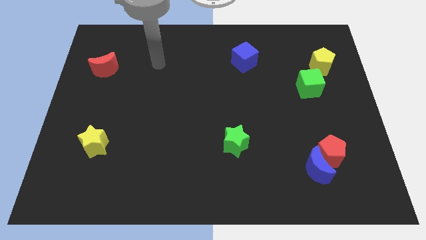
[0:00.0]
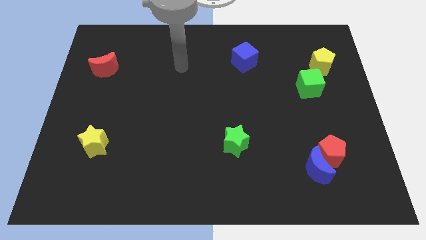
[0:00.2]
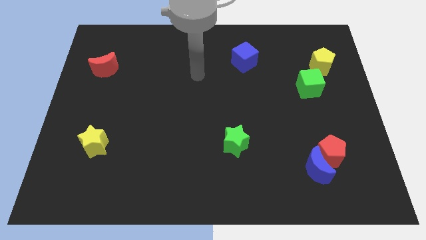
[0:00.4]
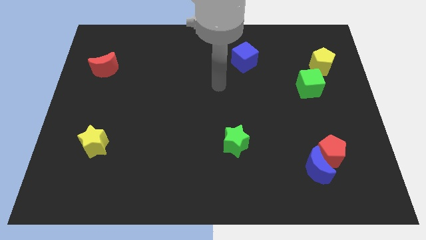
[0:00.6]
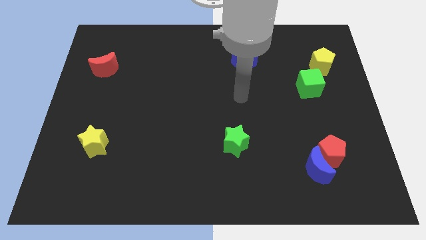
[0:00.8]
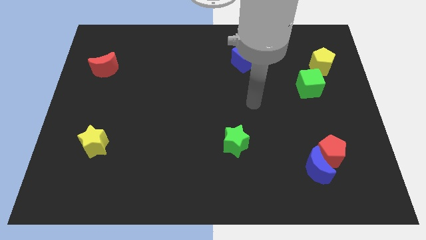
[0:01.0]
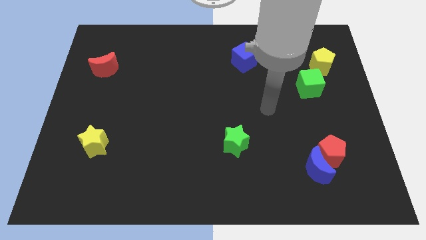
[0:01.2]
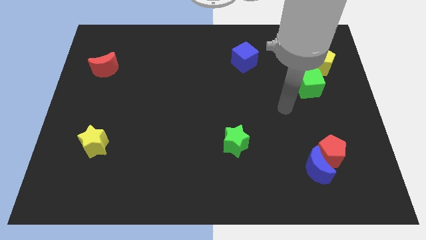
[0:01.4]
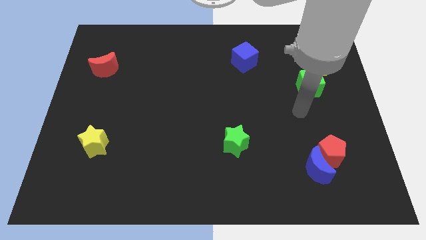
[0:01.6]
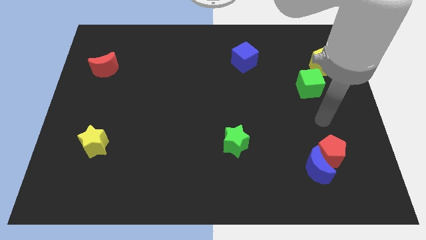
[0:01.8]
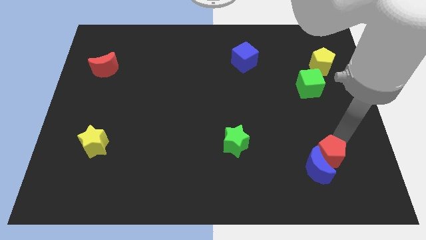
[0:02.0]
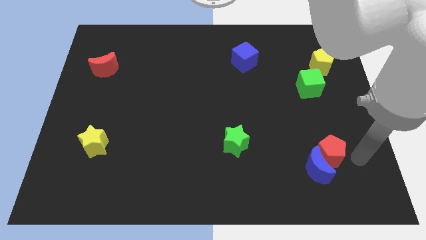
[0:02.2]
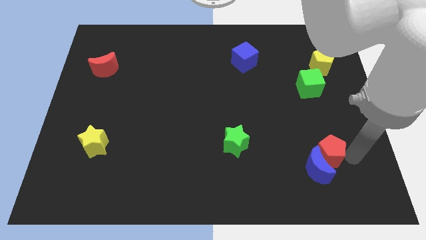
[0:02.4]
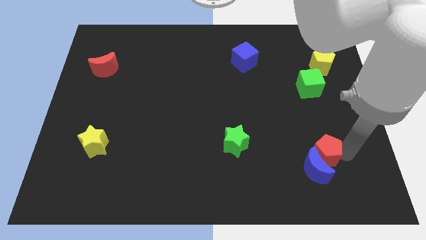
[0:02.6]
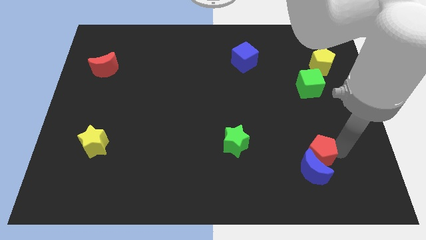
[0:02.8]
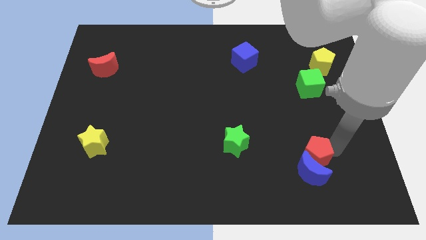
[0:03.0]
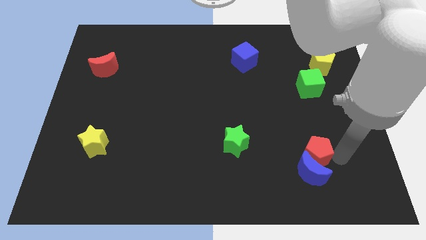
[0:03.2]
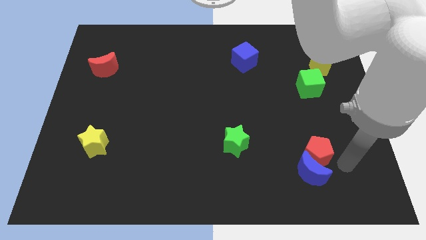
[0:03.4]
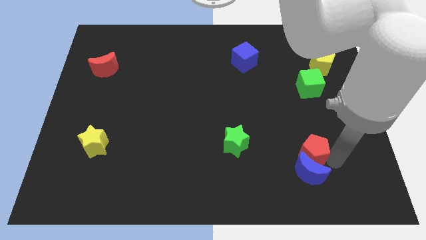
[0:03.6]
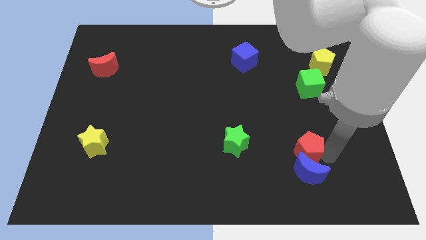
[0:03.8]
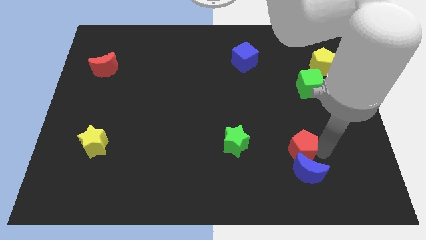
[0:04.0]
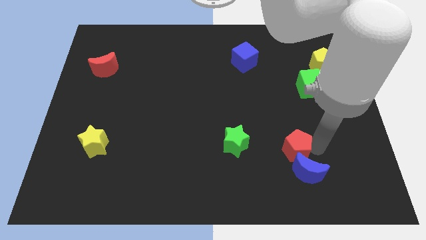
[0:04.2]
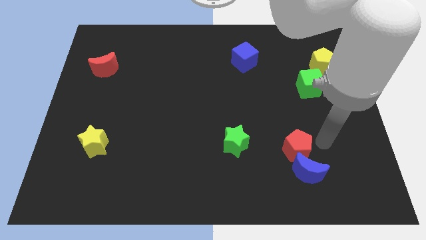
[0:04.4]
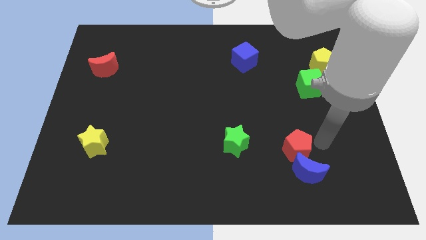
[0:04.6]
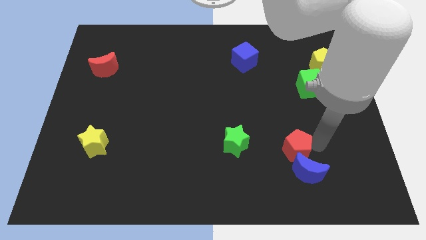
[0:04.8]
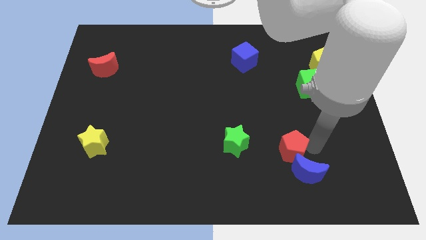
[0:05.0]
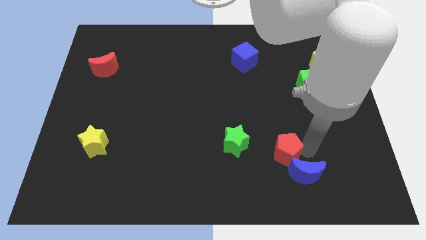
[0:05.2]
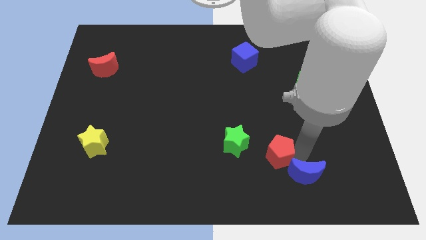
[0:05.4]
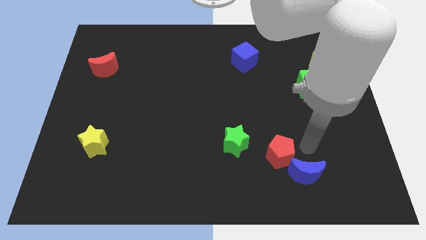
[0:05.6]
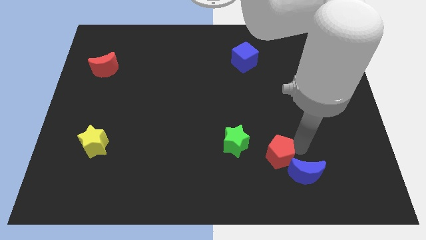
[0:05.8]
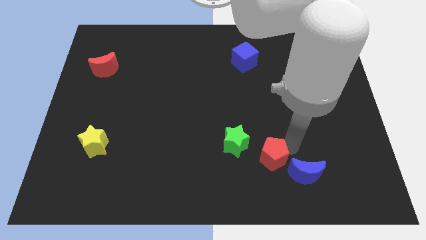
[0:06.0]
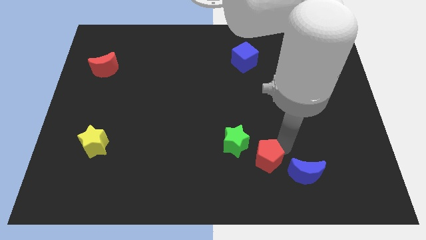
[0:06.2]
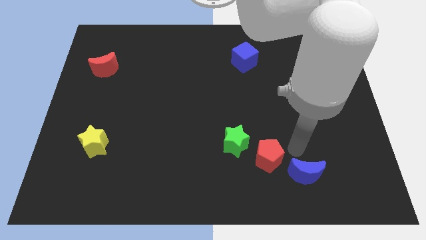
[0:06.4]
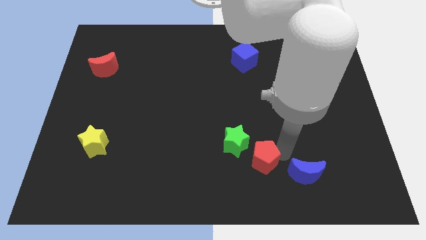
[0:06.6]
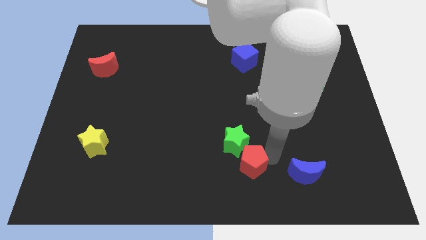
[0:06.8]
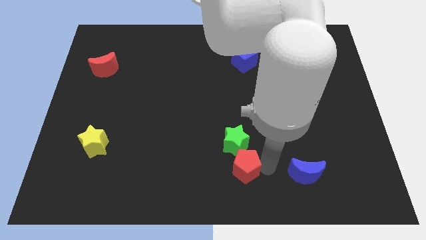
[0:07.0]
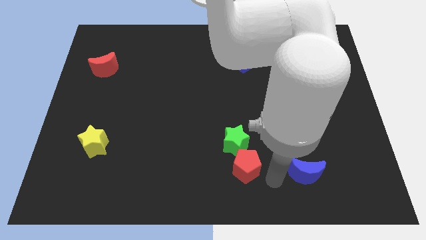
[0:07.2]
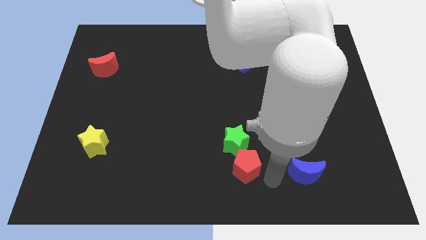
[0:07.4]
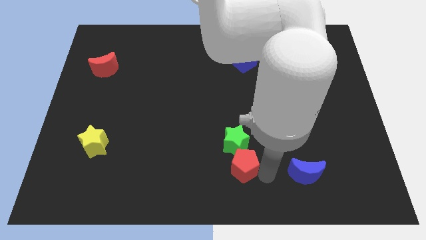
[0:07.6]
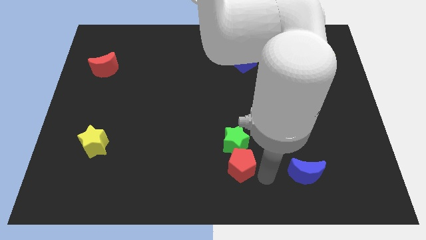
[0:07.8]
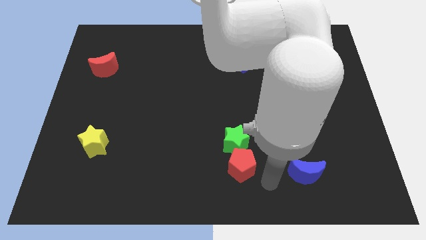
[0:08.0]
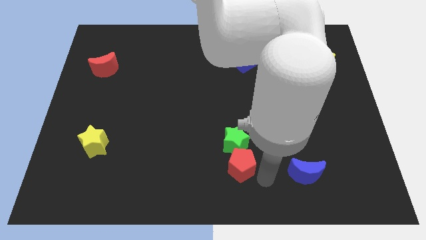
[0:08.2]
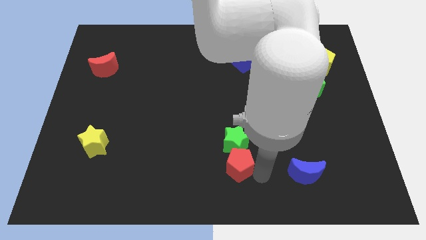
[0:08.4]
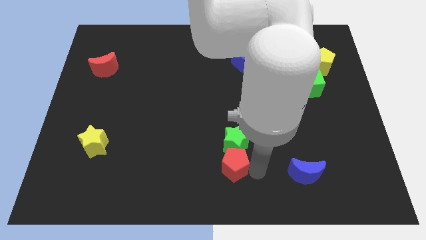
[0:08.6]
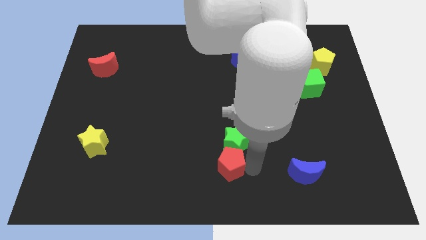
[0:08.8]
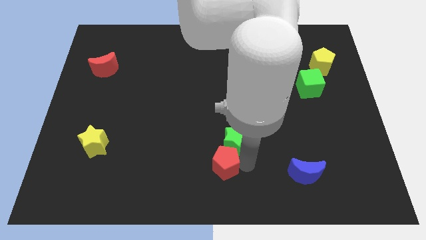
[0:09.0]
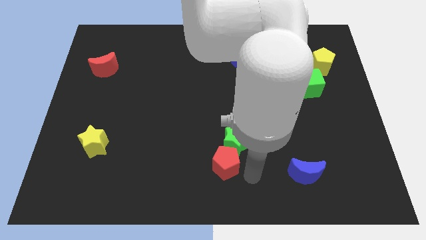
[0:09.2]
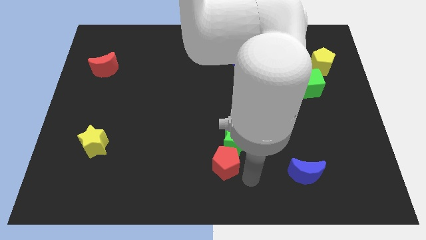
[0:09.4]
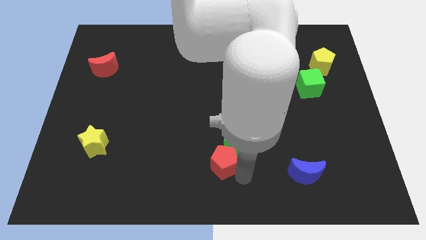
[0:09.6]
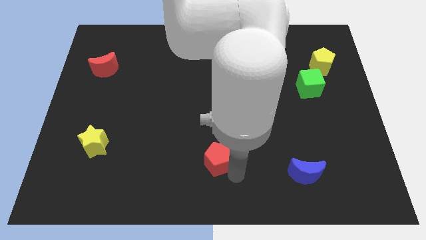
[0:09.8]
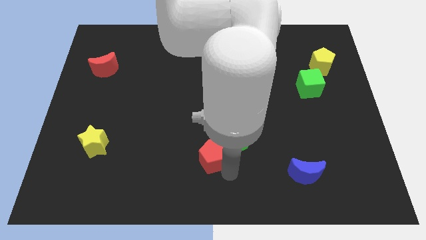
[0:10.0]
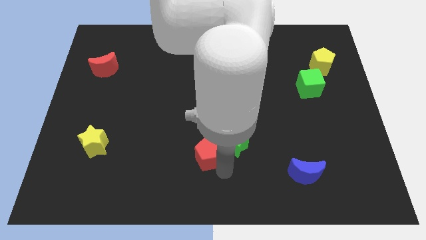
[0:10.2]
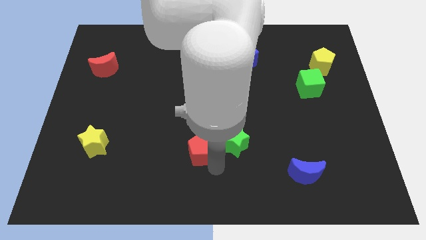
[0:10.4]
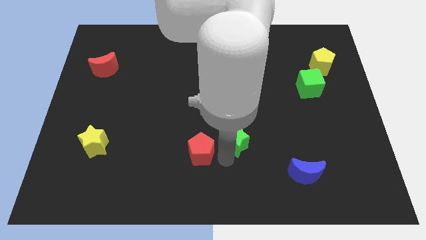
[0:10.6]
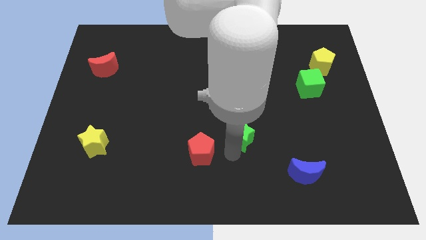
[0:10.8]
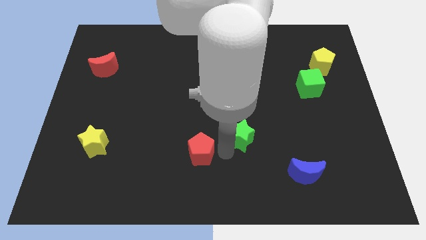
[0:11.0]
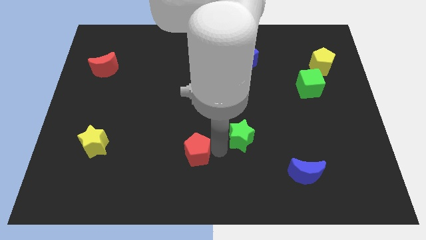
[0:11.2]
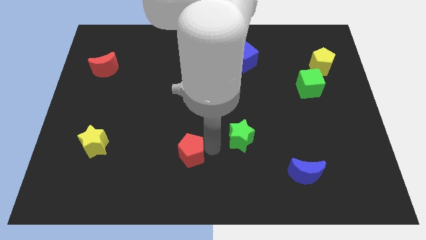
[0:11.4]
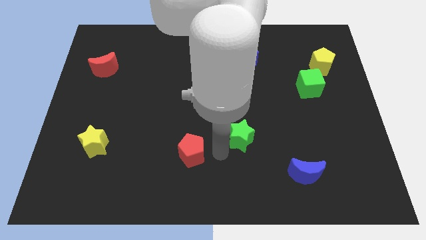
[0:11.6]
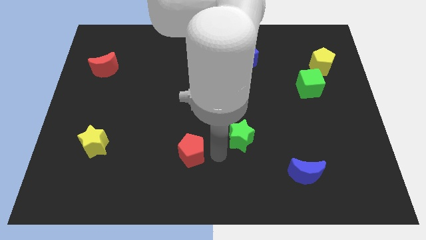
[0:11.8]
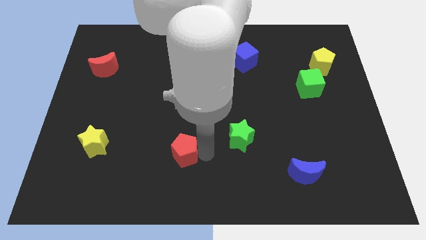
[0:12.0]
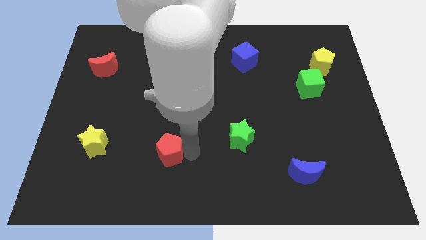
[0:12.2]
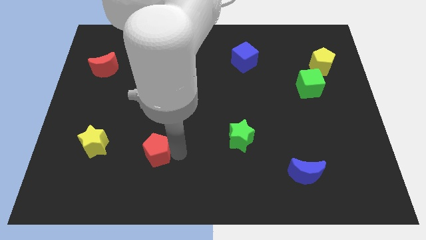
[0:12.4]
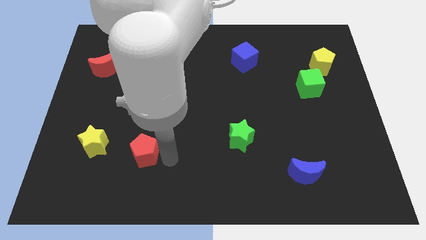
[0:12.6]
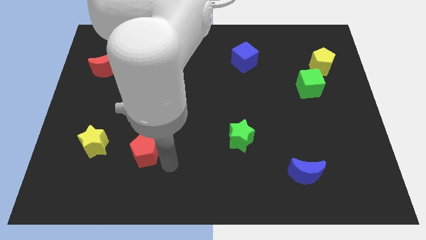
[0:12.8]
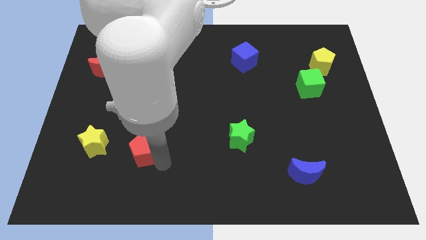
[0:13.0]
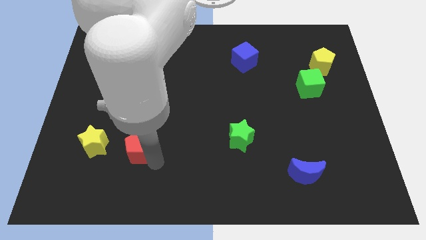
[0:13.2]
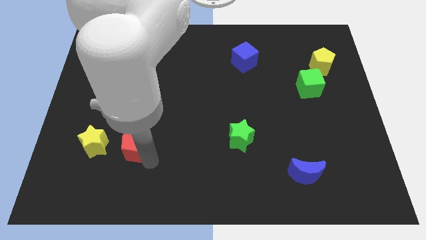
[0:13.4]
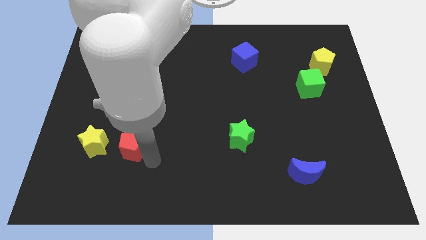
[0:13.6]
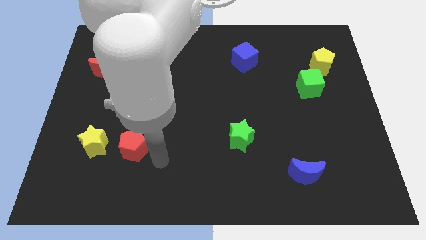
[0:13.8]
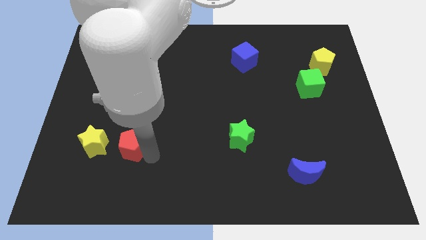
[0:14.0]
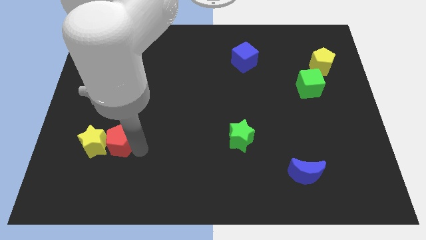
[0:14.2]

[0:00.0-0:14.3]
slide the red pentagon to the yellow star

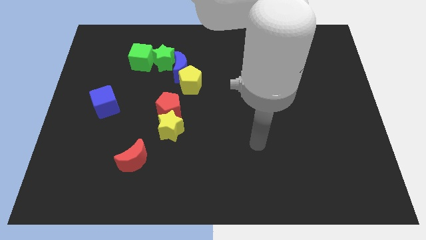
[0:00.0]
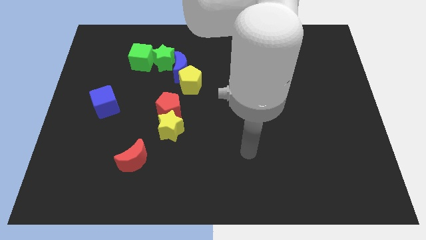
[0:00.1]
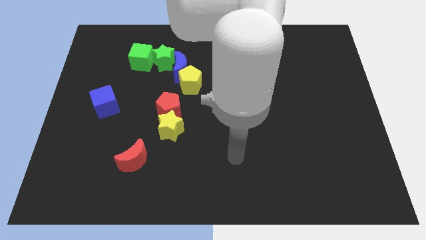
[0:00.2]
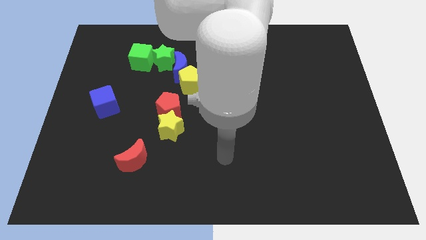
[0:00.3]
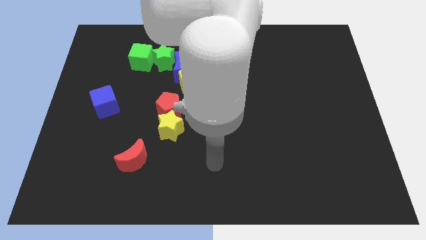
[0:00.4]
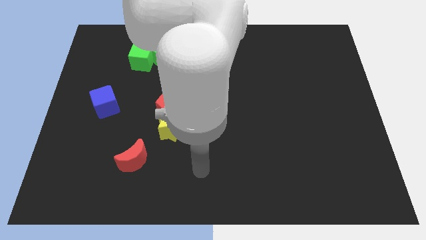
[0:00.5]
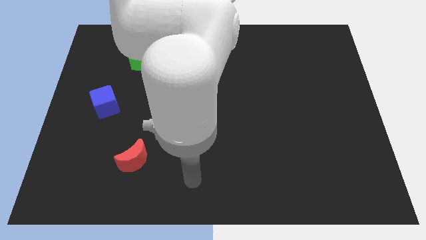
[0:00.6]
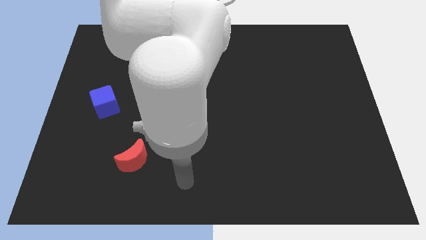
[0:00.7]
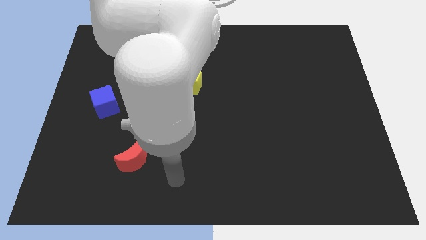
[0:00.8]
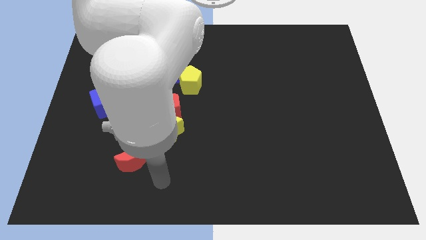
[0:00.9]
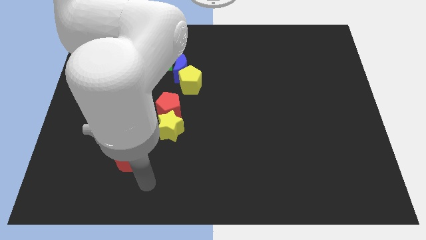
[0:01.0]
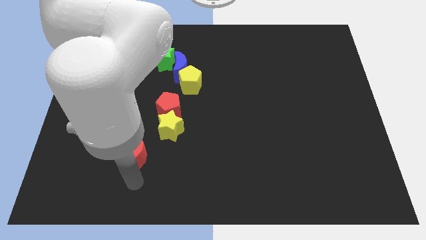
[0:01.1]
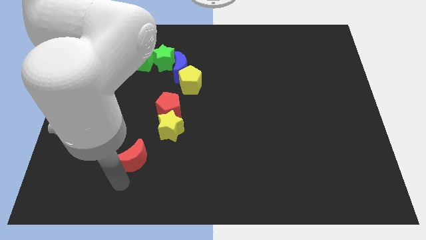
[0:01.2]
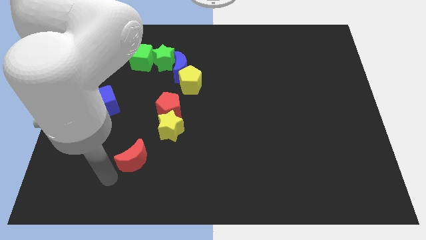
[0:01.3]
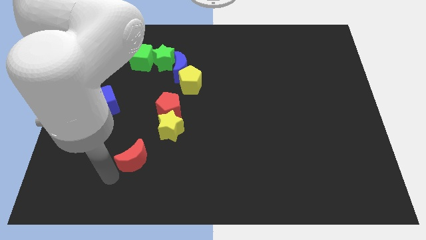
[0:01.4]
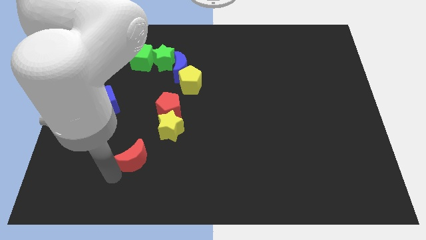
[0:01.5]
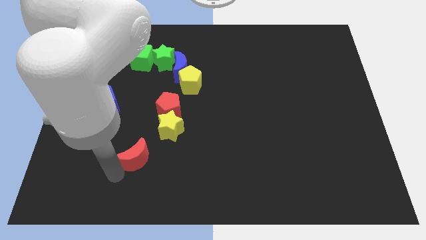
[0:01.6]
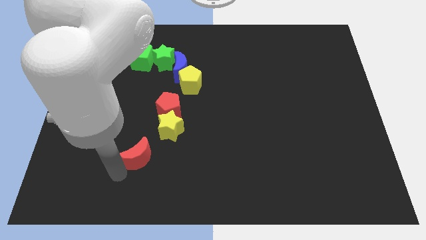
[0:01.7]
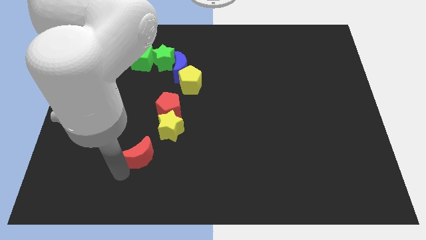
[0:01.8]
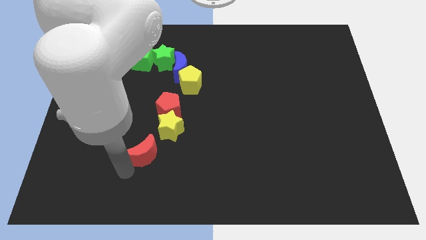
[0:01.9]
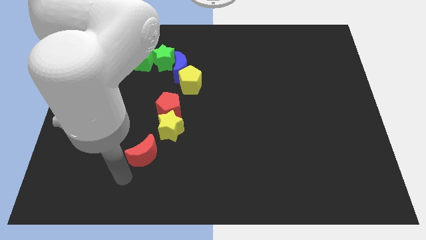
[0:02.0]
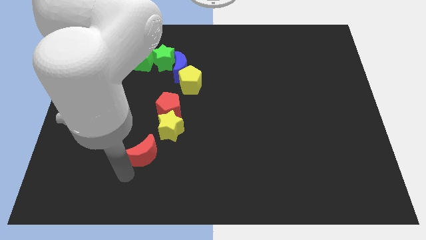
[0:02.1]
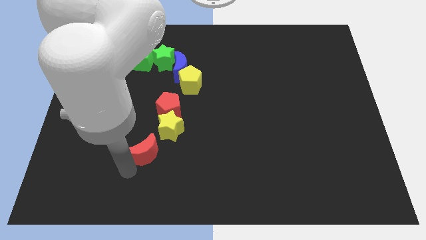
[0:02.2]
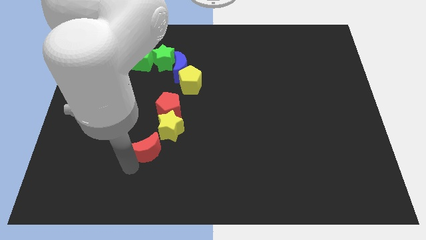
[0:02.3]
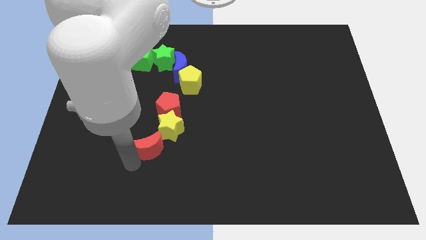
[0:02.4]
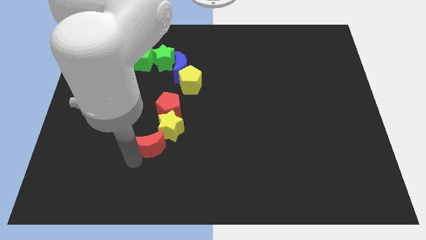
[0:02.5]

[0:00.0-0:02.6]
slide the red moon towards the yellow star
